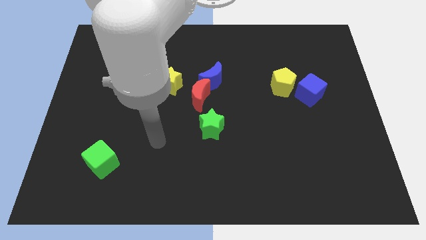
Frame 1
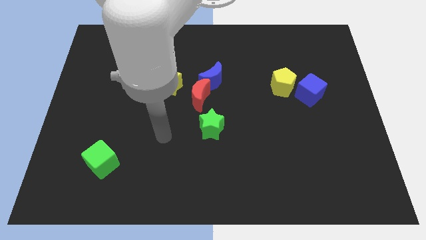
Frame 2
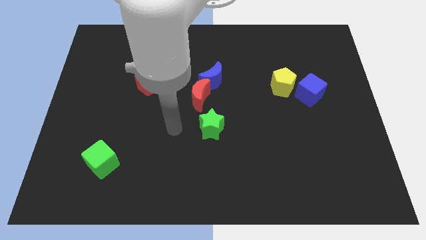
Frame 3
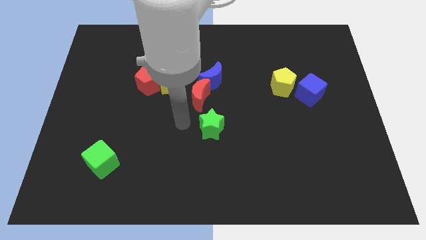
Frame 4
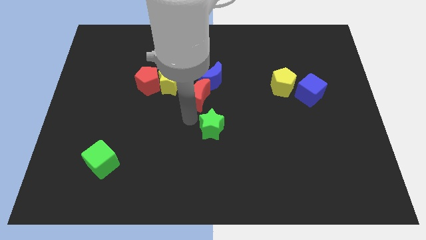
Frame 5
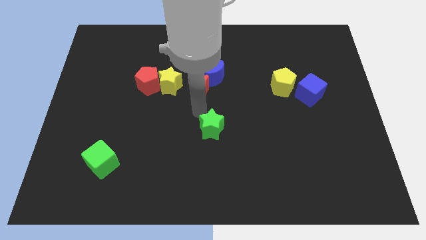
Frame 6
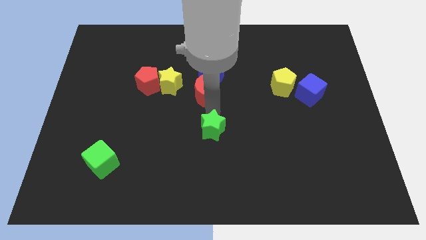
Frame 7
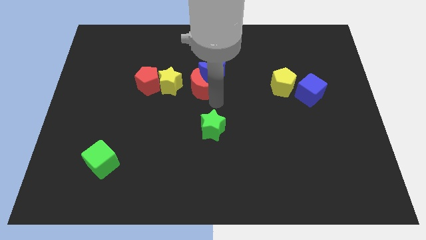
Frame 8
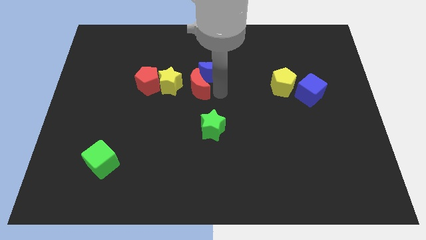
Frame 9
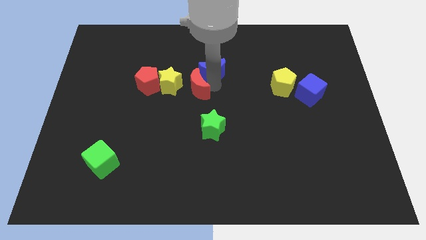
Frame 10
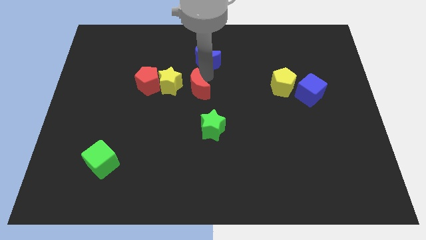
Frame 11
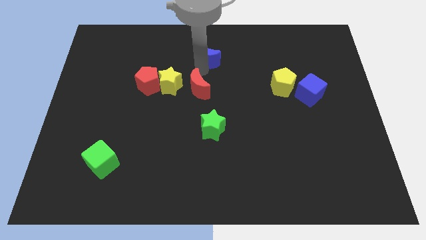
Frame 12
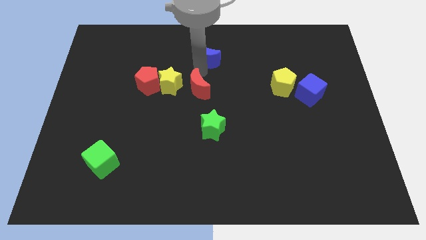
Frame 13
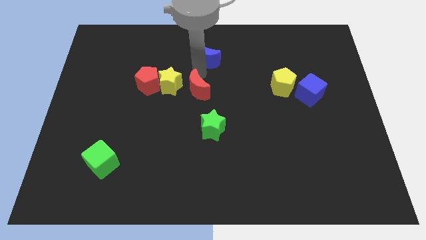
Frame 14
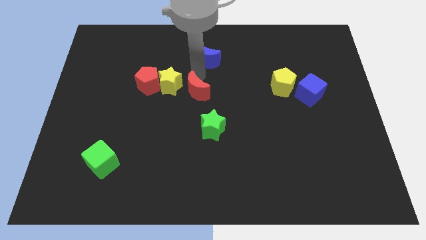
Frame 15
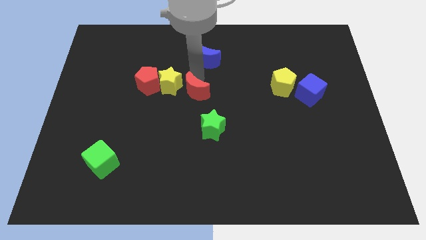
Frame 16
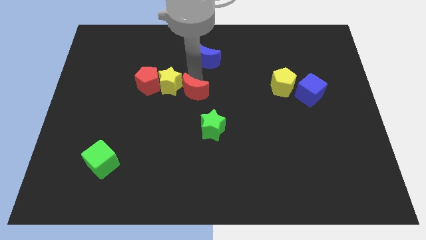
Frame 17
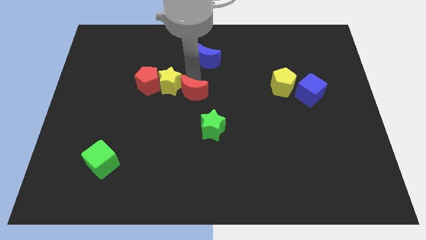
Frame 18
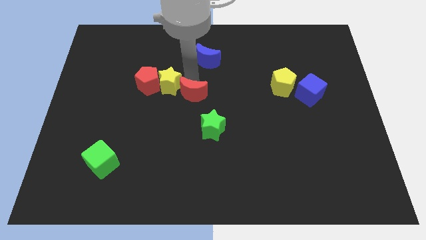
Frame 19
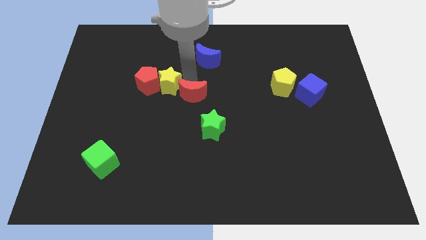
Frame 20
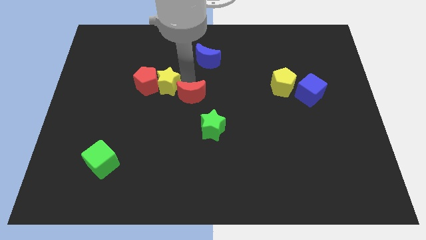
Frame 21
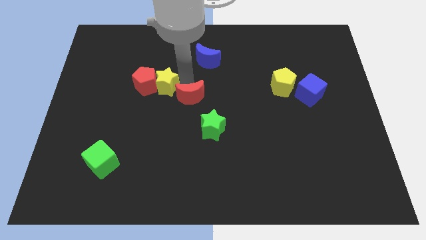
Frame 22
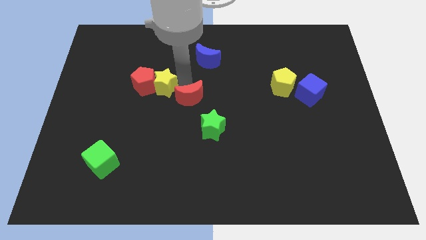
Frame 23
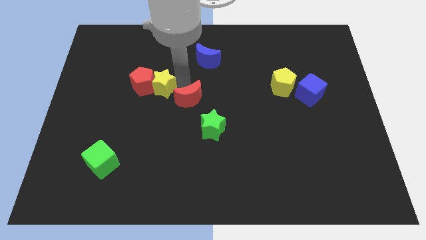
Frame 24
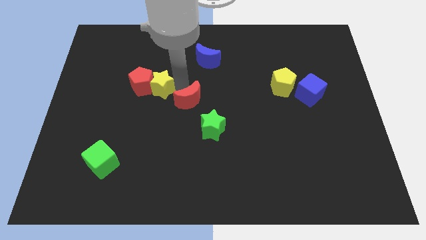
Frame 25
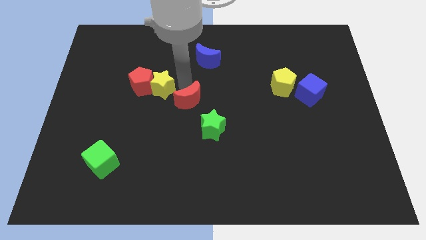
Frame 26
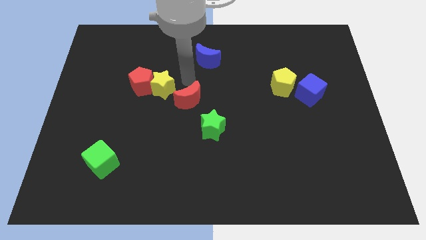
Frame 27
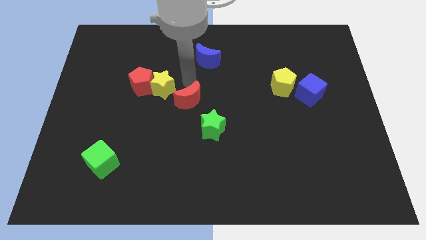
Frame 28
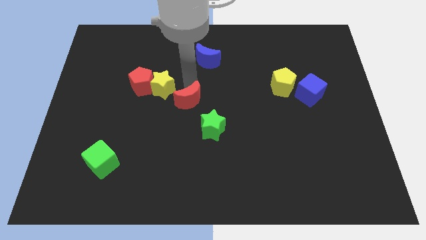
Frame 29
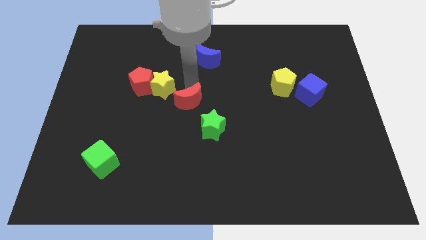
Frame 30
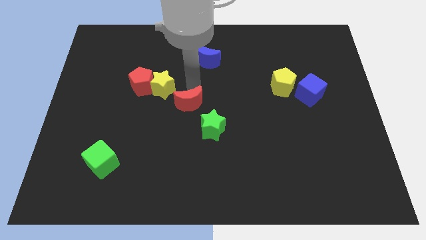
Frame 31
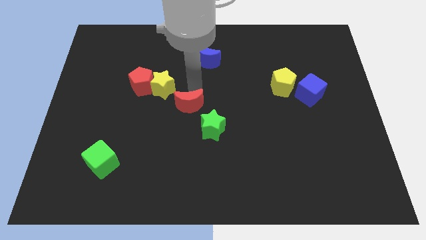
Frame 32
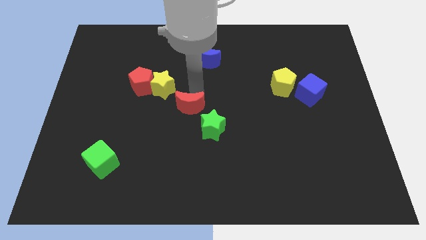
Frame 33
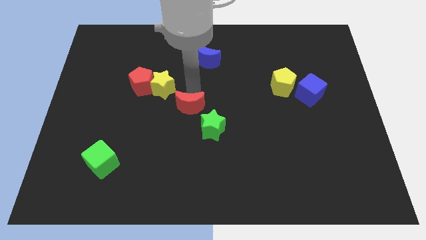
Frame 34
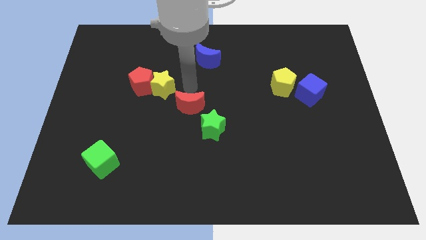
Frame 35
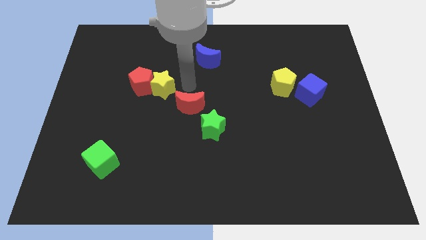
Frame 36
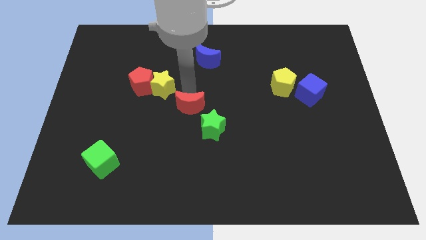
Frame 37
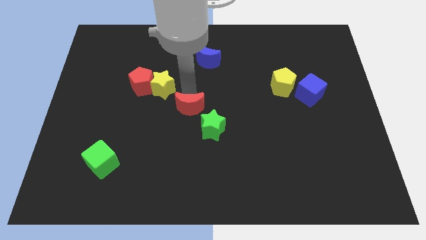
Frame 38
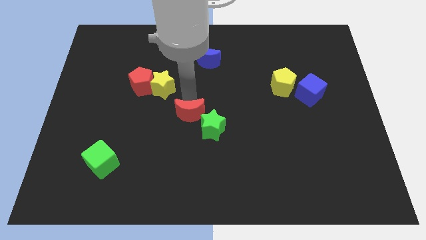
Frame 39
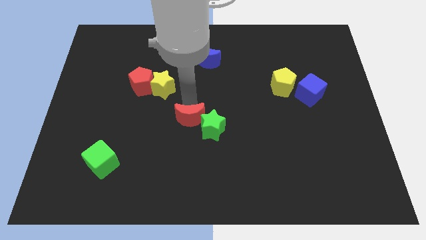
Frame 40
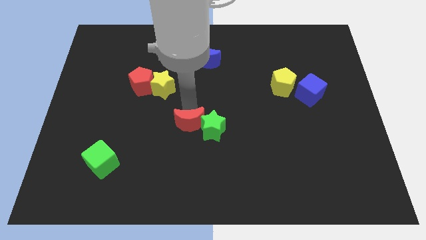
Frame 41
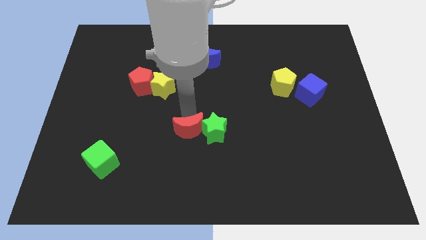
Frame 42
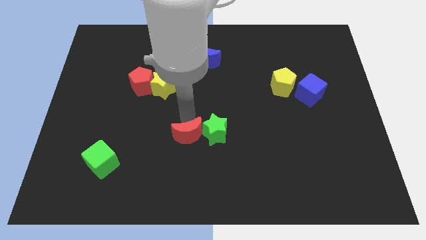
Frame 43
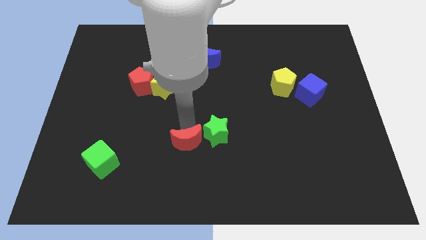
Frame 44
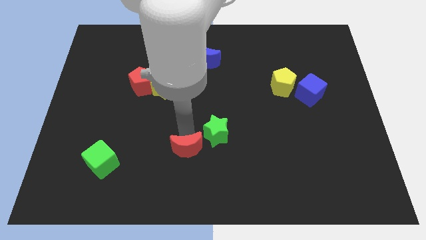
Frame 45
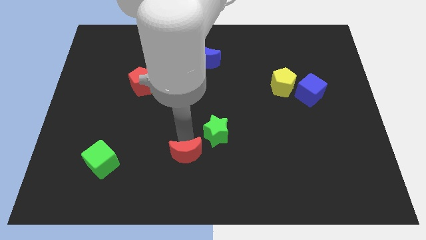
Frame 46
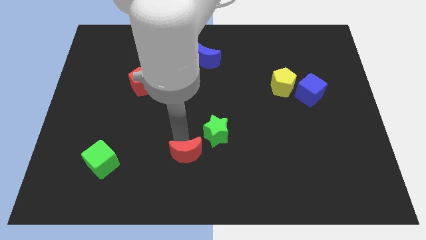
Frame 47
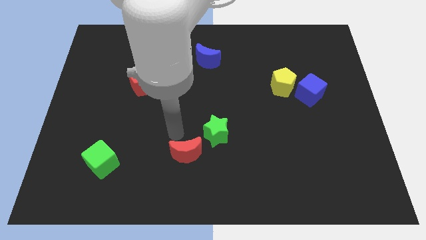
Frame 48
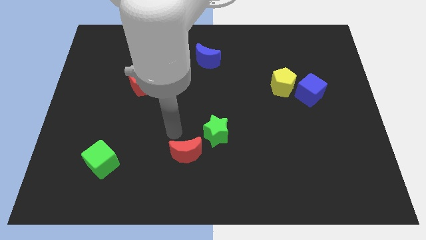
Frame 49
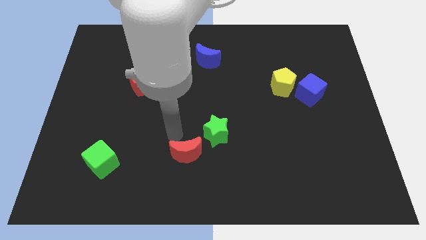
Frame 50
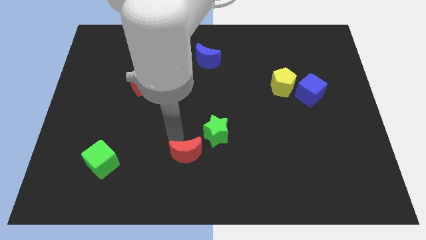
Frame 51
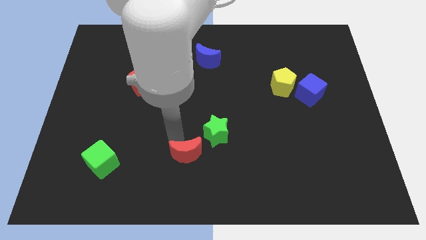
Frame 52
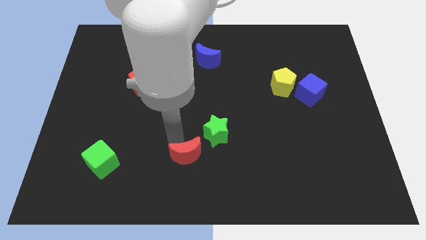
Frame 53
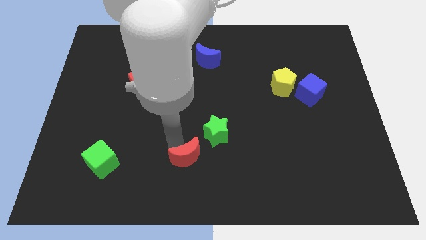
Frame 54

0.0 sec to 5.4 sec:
move the red moon to the bottom

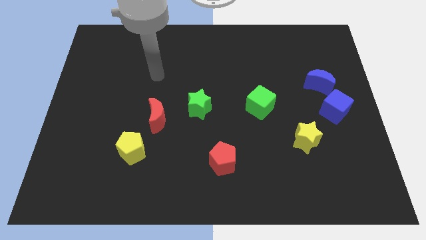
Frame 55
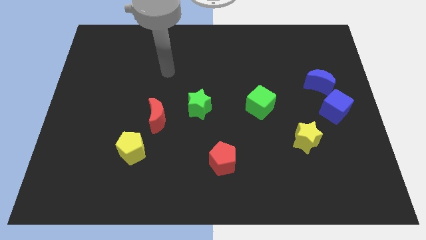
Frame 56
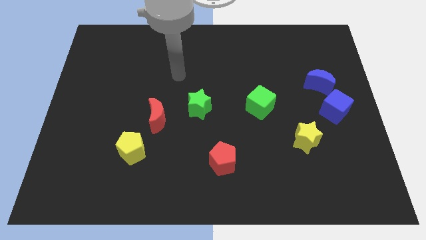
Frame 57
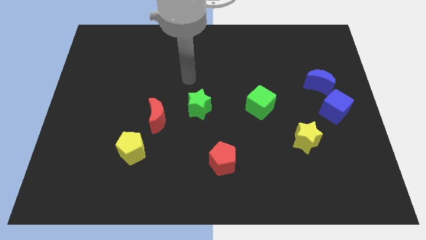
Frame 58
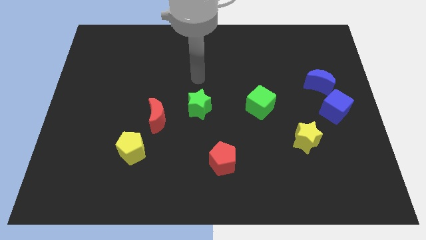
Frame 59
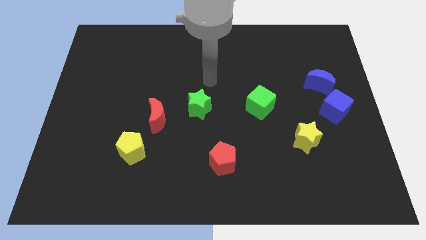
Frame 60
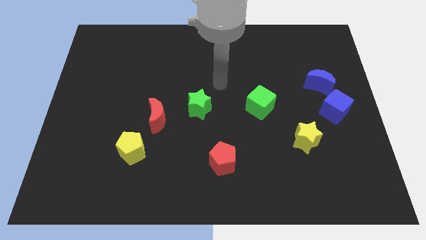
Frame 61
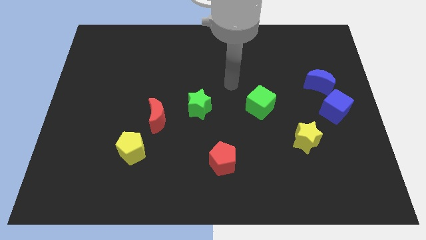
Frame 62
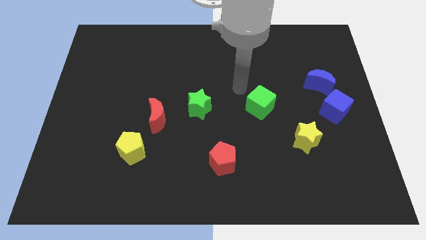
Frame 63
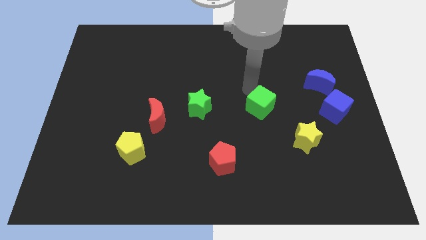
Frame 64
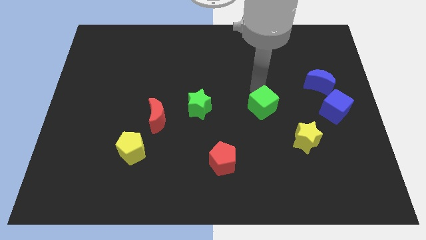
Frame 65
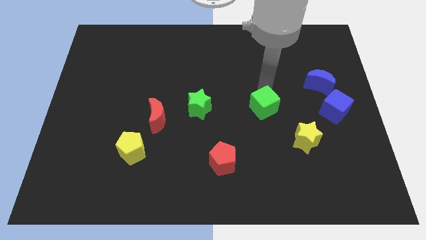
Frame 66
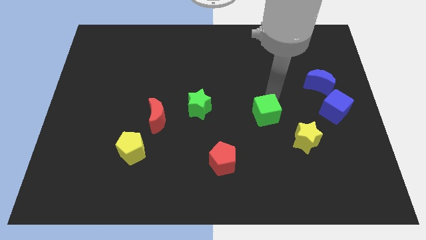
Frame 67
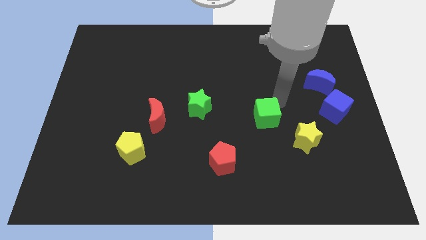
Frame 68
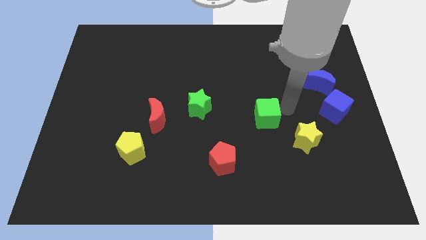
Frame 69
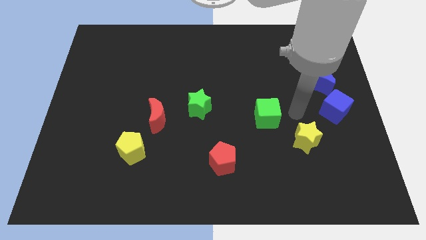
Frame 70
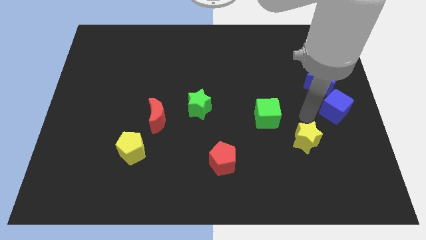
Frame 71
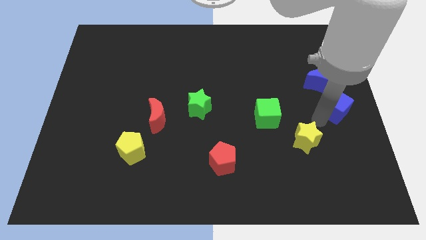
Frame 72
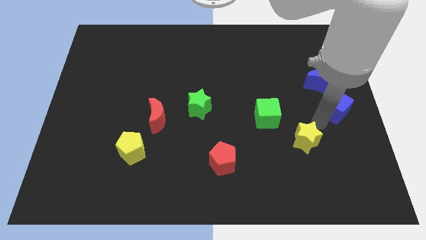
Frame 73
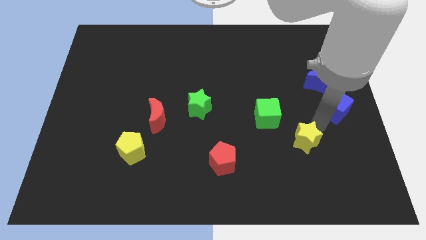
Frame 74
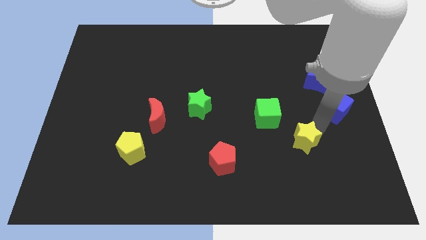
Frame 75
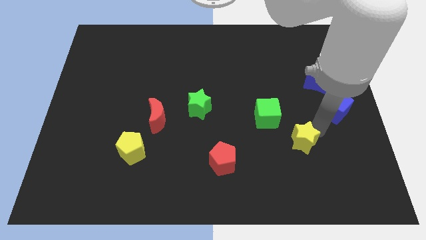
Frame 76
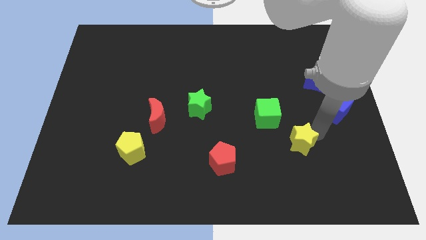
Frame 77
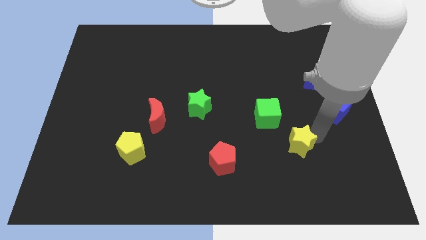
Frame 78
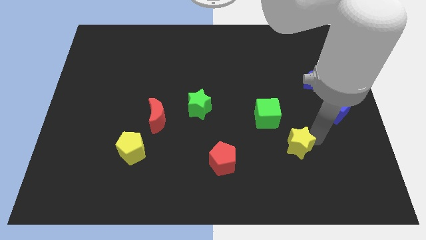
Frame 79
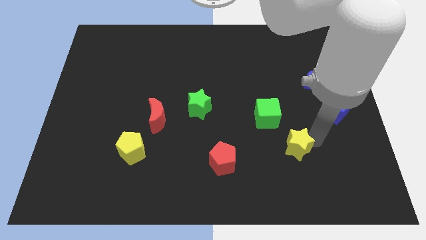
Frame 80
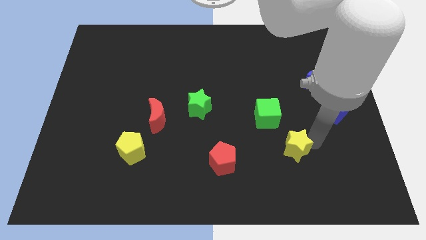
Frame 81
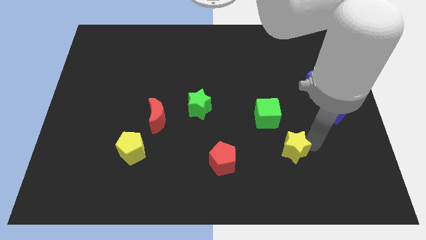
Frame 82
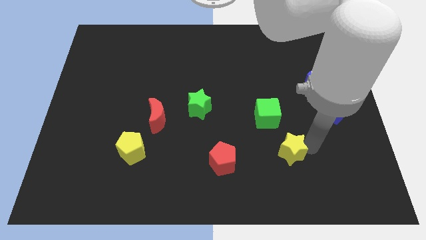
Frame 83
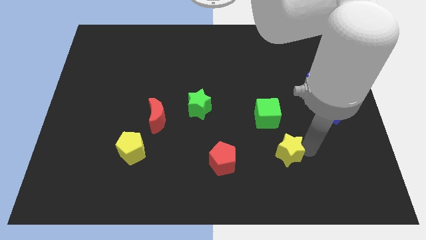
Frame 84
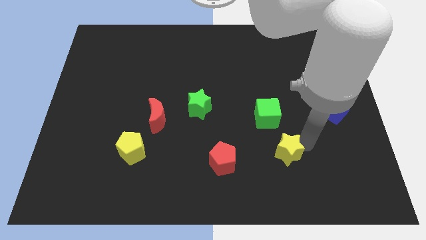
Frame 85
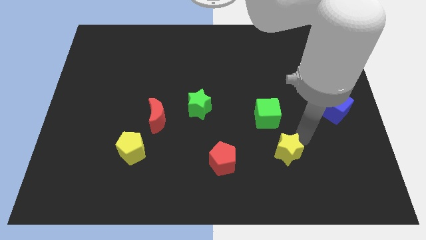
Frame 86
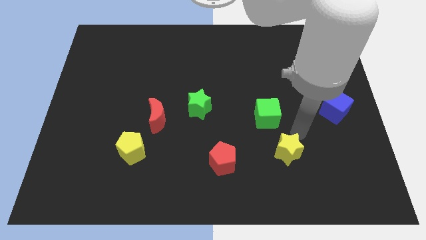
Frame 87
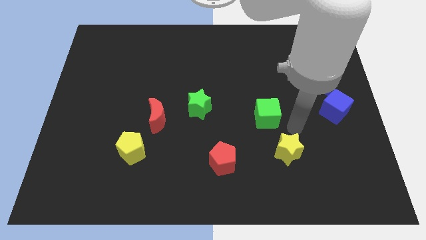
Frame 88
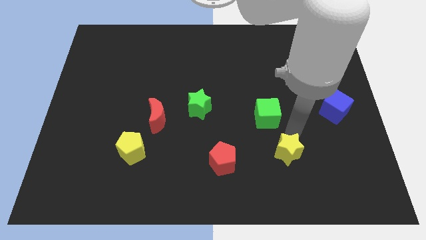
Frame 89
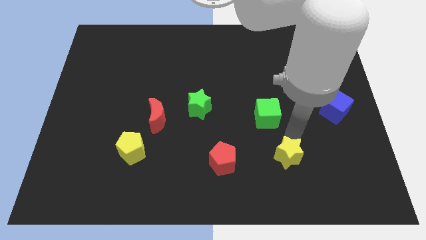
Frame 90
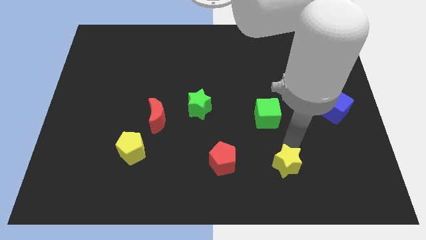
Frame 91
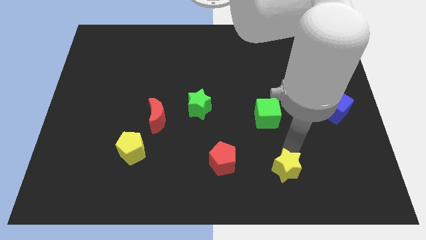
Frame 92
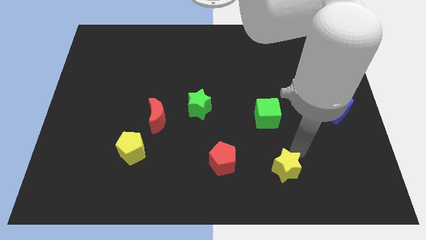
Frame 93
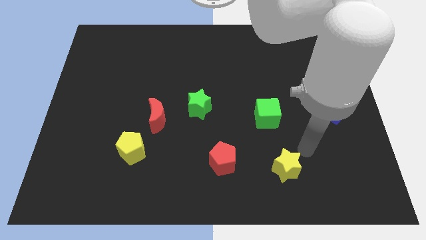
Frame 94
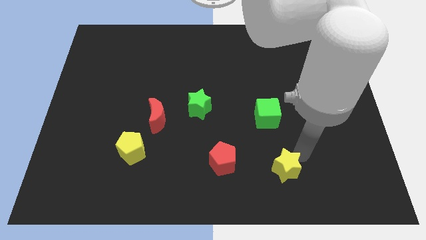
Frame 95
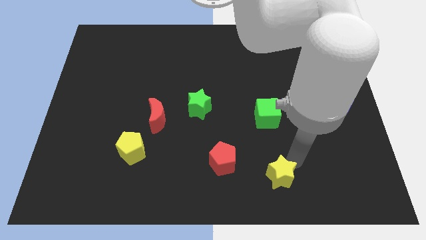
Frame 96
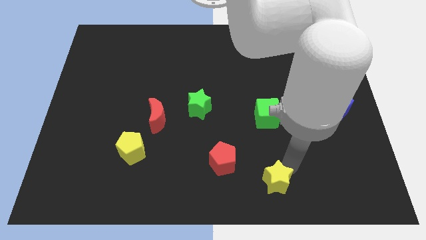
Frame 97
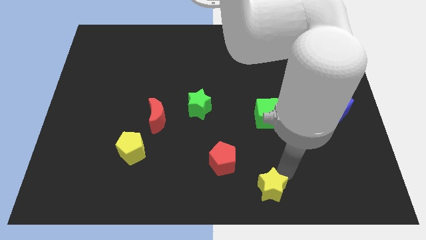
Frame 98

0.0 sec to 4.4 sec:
put the yellow star to the bottom
